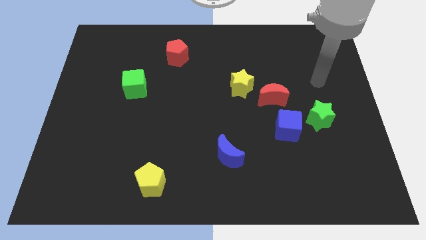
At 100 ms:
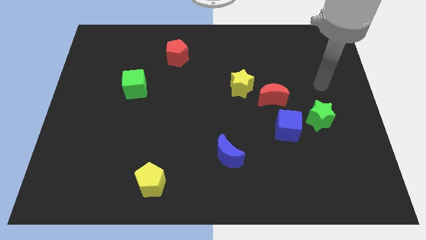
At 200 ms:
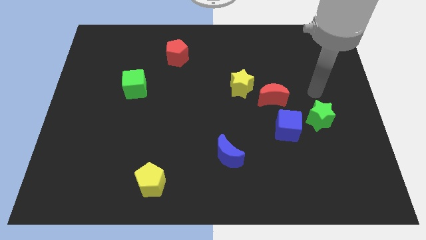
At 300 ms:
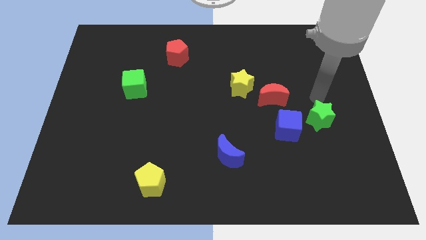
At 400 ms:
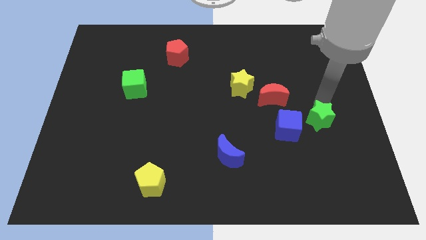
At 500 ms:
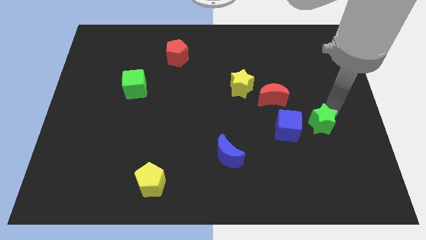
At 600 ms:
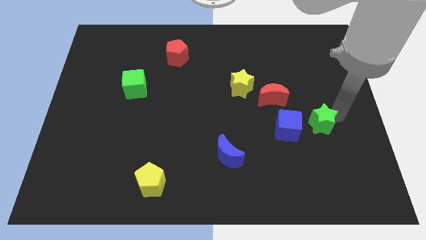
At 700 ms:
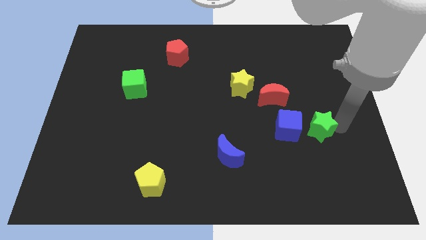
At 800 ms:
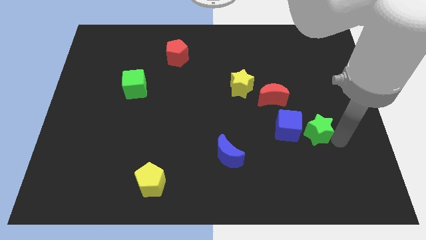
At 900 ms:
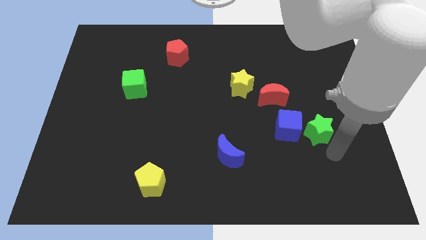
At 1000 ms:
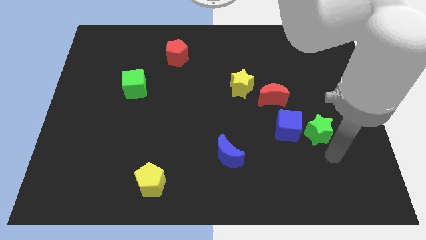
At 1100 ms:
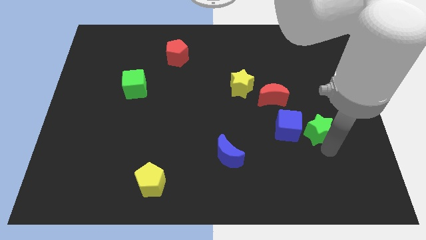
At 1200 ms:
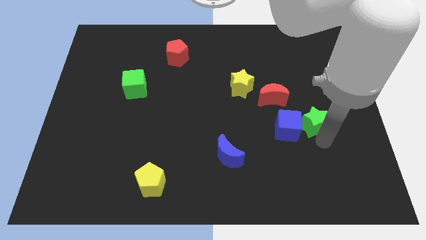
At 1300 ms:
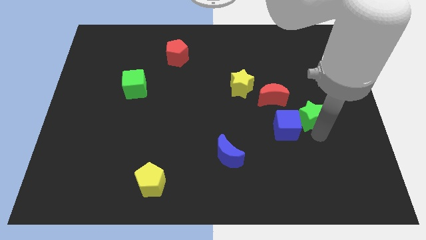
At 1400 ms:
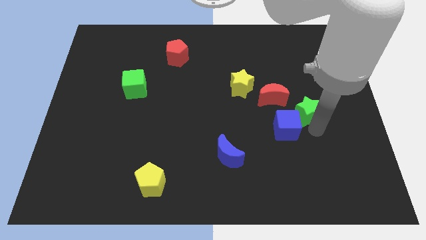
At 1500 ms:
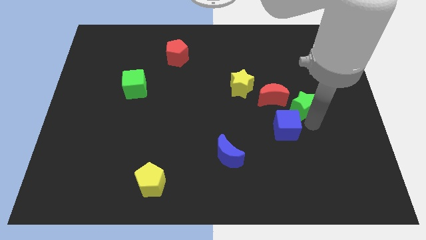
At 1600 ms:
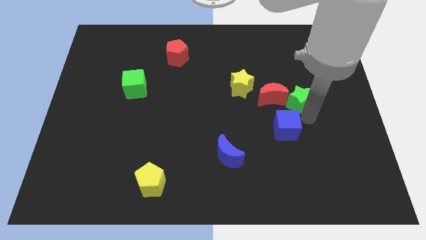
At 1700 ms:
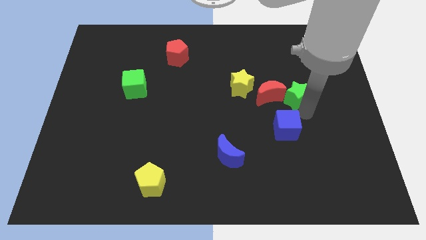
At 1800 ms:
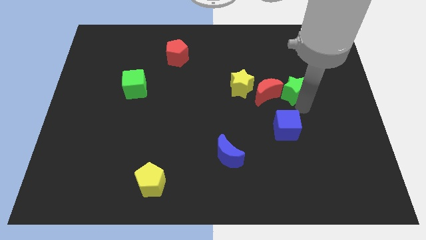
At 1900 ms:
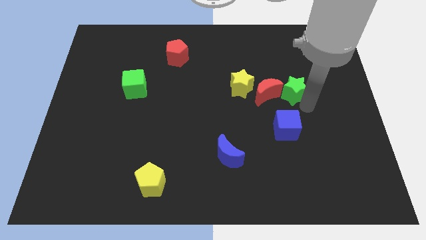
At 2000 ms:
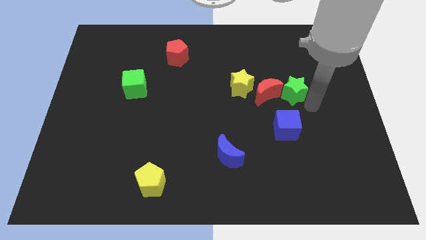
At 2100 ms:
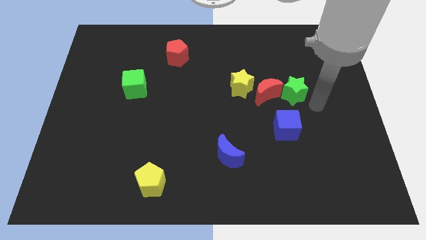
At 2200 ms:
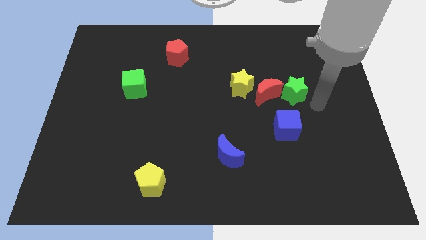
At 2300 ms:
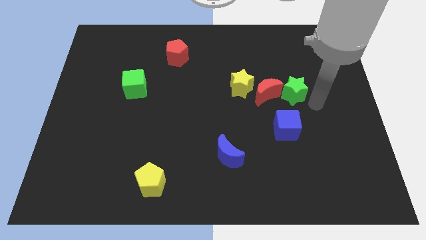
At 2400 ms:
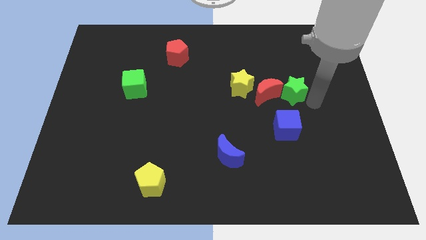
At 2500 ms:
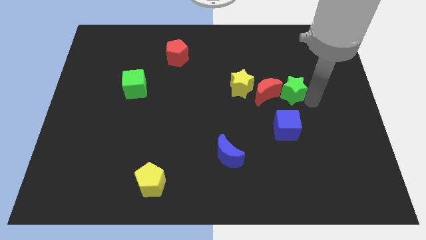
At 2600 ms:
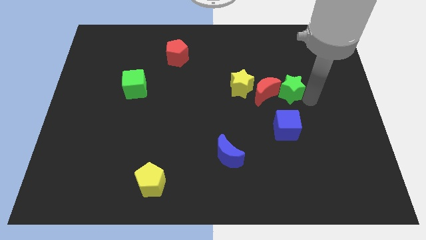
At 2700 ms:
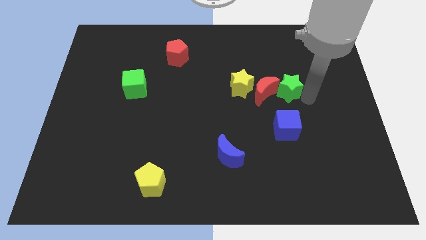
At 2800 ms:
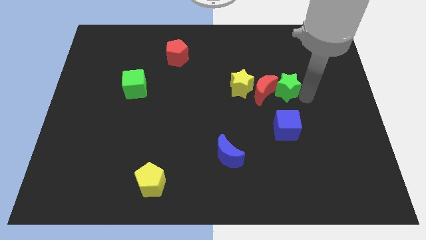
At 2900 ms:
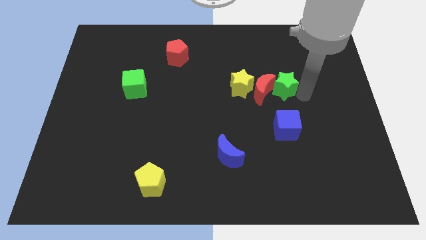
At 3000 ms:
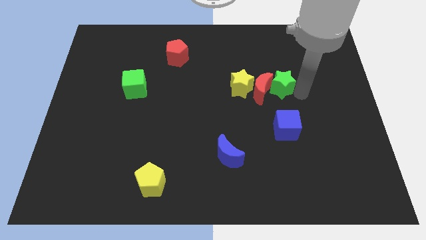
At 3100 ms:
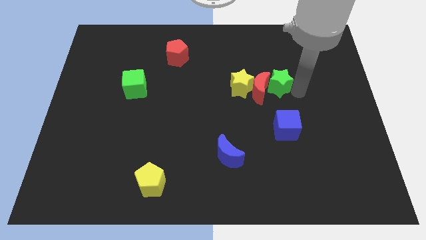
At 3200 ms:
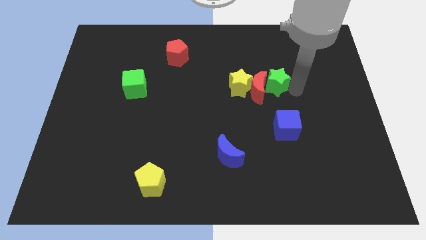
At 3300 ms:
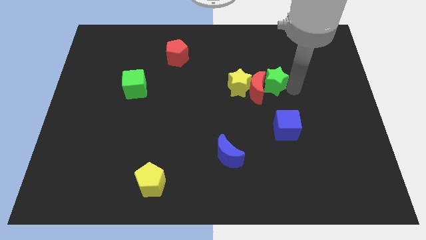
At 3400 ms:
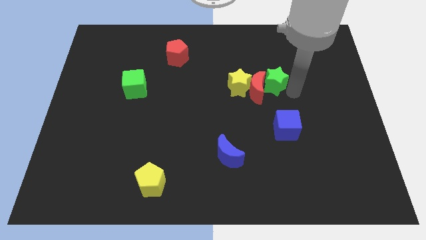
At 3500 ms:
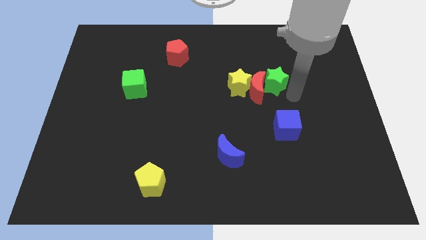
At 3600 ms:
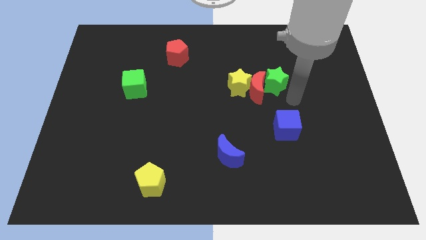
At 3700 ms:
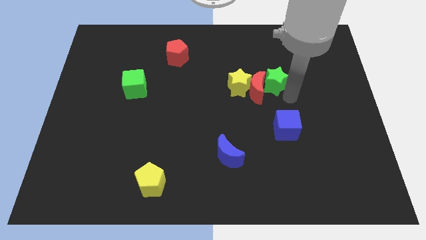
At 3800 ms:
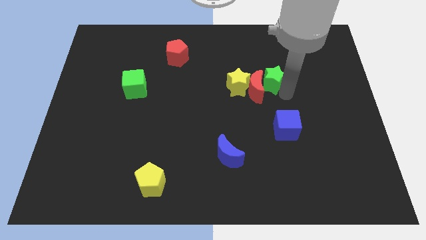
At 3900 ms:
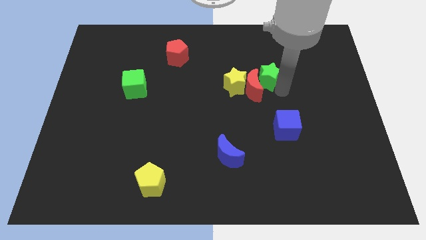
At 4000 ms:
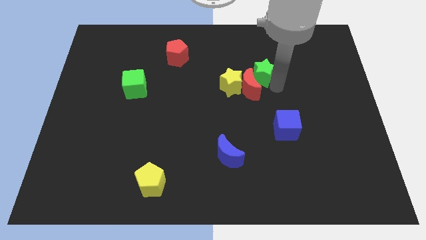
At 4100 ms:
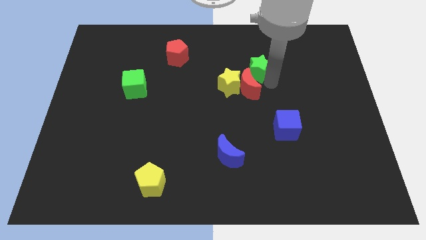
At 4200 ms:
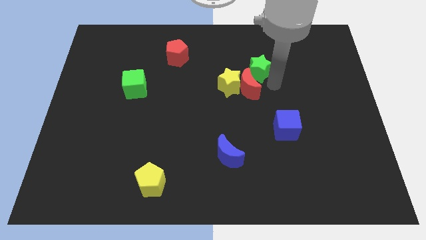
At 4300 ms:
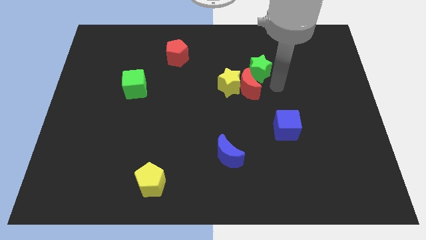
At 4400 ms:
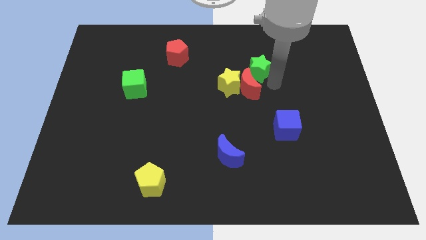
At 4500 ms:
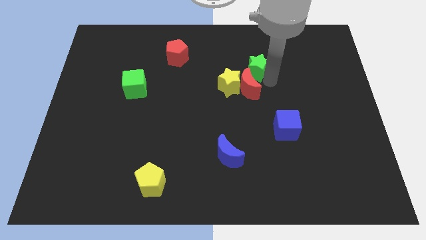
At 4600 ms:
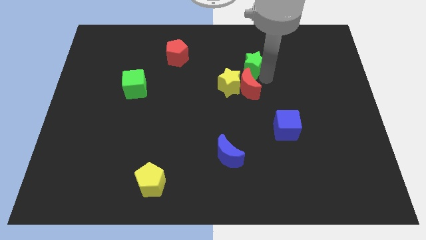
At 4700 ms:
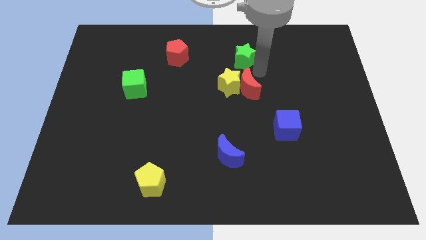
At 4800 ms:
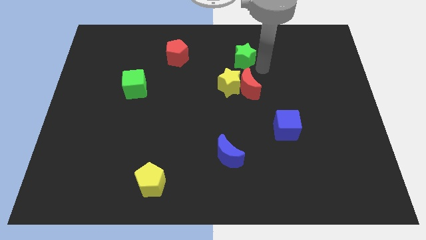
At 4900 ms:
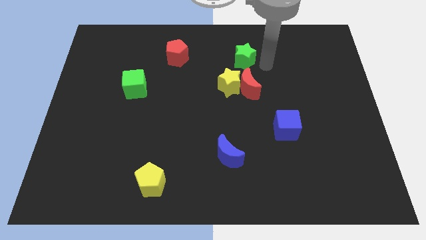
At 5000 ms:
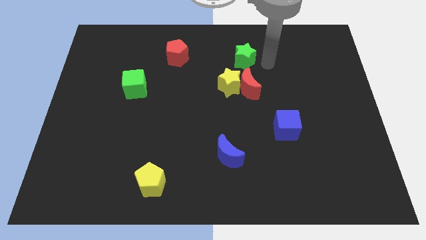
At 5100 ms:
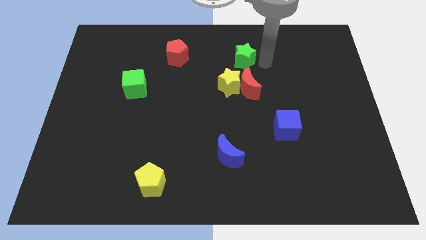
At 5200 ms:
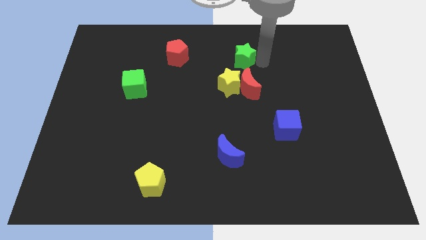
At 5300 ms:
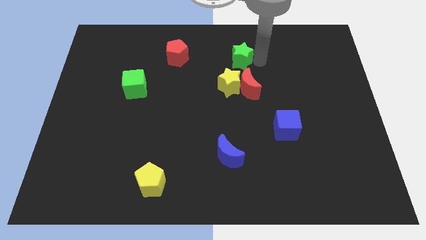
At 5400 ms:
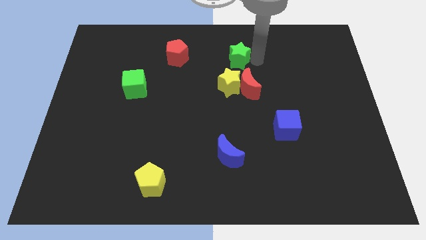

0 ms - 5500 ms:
move the green star right of the red pentagon

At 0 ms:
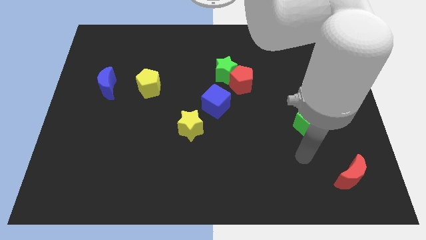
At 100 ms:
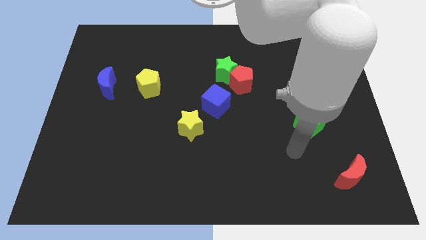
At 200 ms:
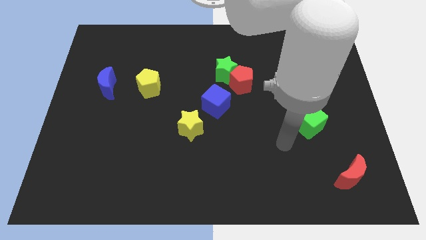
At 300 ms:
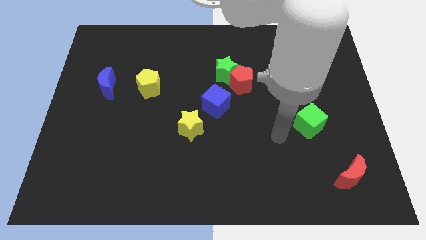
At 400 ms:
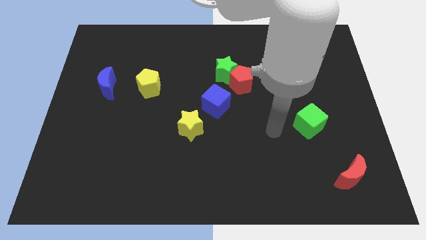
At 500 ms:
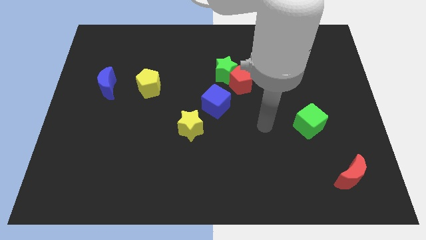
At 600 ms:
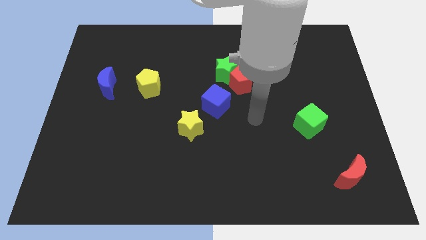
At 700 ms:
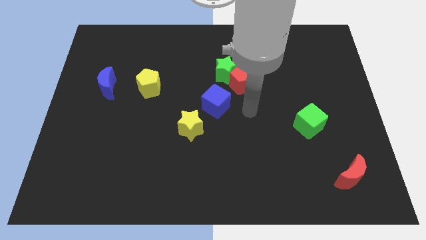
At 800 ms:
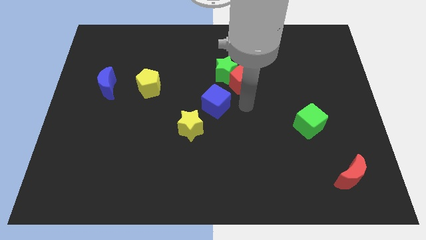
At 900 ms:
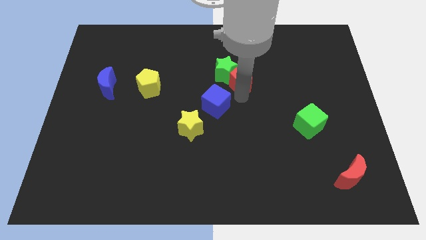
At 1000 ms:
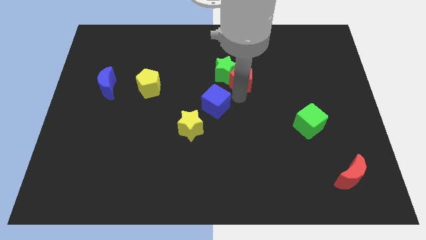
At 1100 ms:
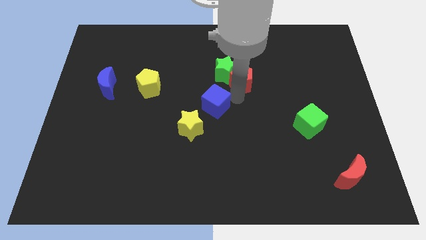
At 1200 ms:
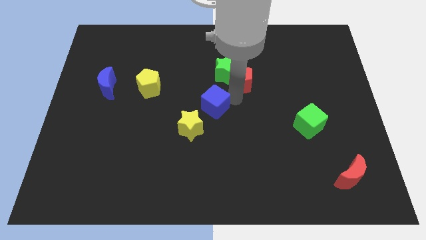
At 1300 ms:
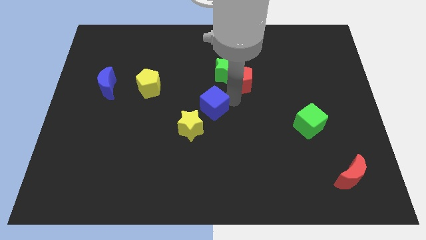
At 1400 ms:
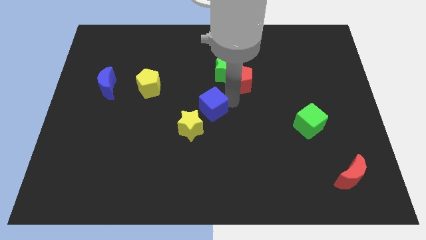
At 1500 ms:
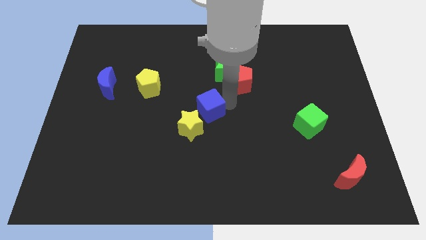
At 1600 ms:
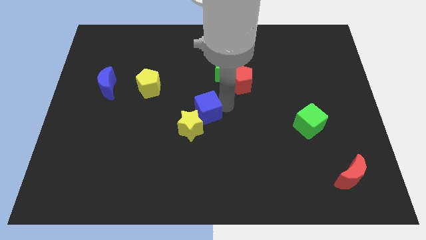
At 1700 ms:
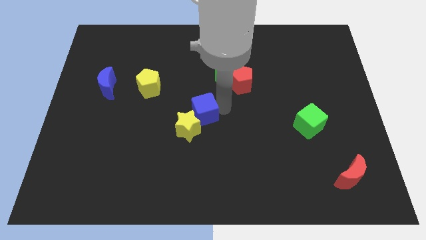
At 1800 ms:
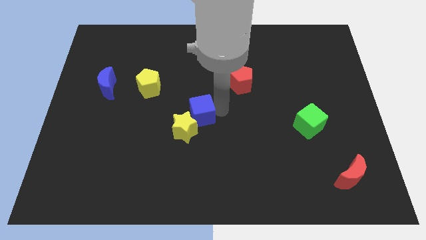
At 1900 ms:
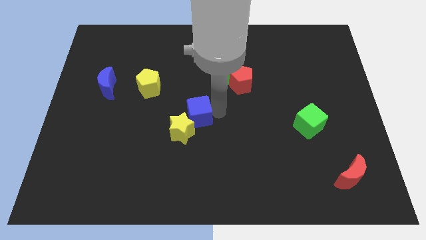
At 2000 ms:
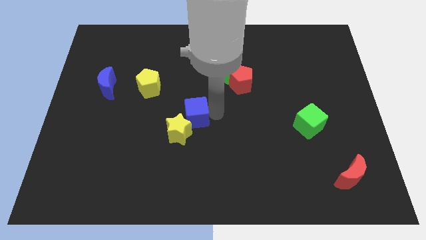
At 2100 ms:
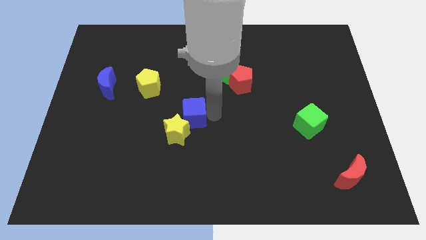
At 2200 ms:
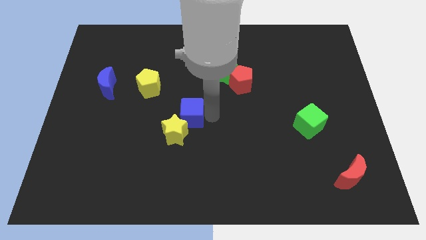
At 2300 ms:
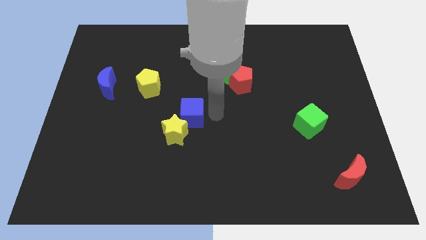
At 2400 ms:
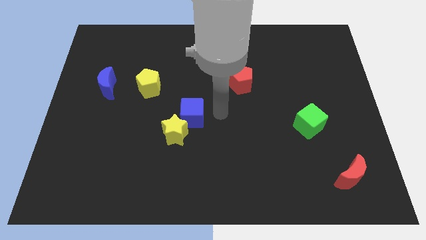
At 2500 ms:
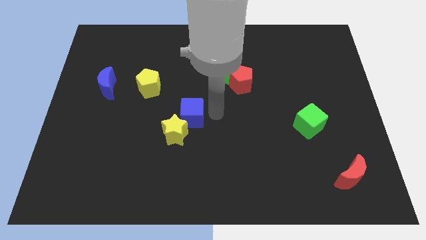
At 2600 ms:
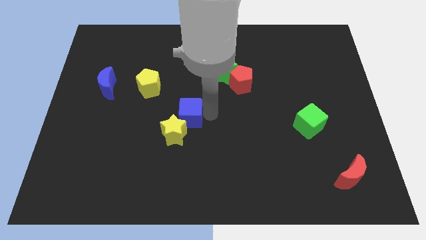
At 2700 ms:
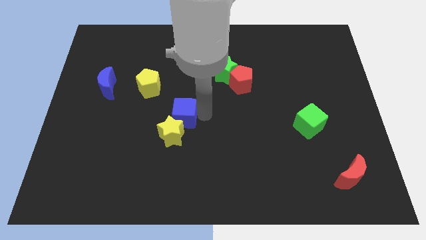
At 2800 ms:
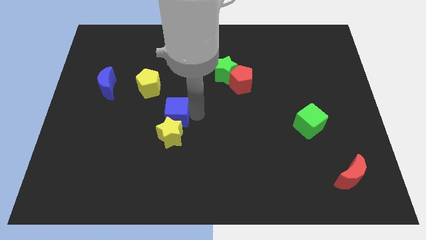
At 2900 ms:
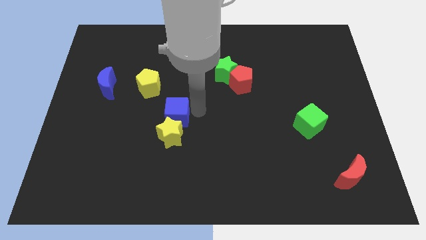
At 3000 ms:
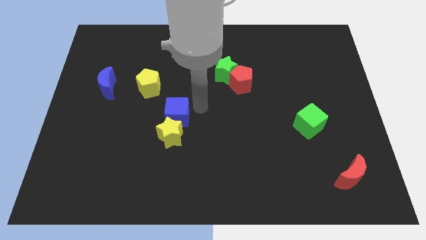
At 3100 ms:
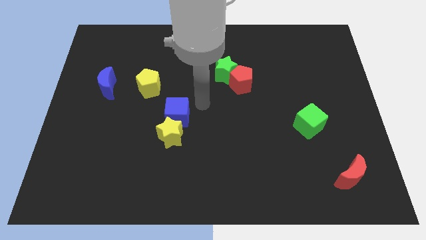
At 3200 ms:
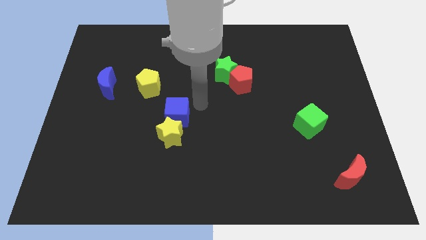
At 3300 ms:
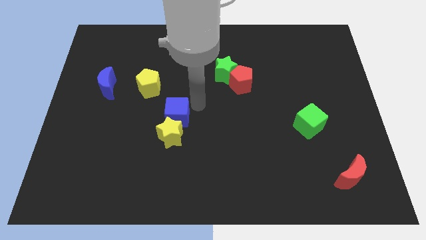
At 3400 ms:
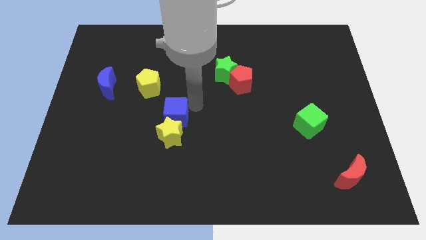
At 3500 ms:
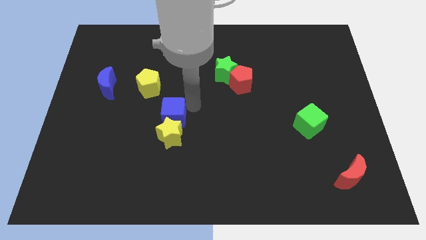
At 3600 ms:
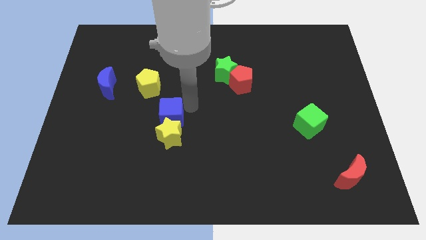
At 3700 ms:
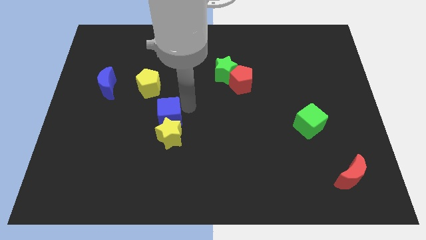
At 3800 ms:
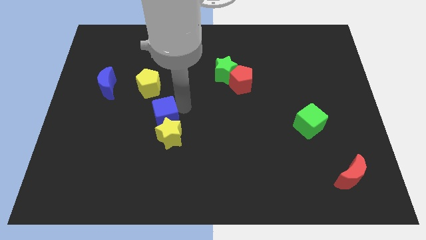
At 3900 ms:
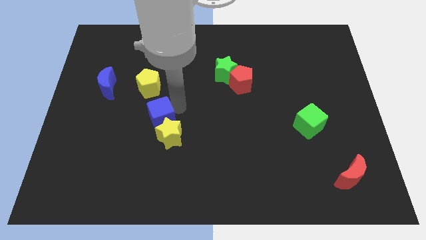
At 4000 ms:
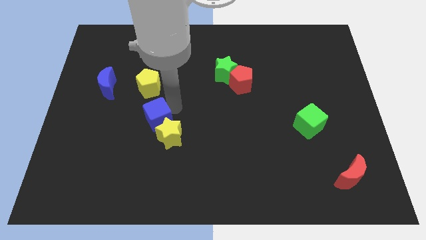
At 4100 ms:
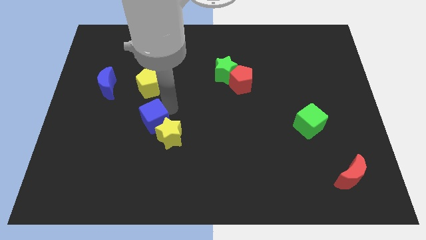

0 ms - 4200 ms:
put the blue cube left of the yellow star
